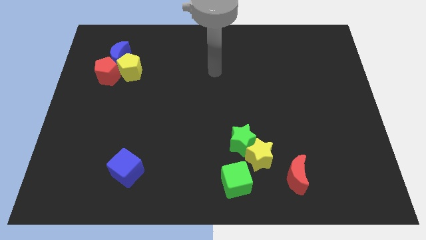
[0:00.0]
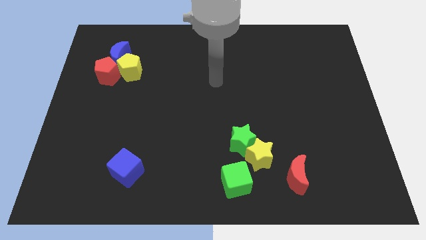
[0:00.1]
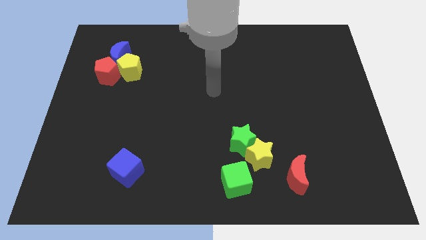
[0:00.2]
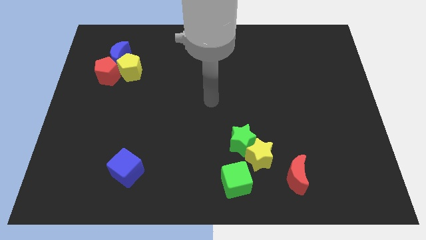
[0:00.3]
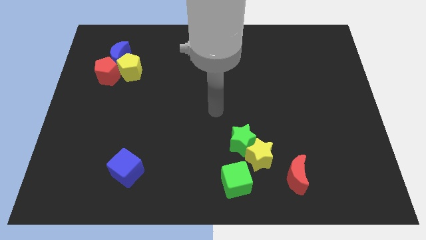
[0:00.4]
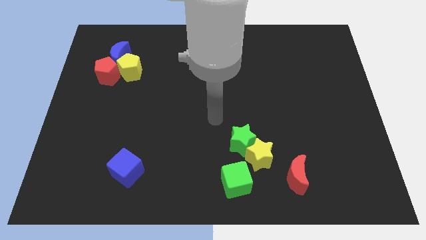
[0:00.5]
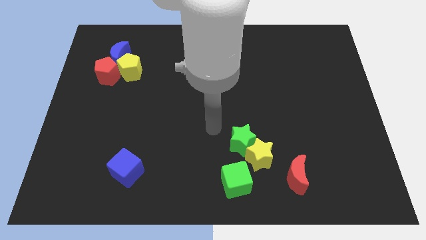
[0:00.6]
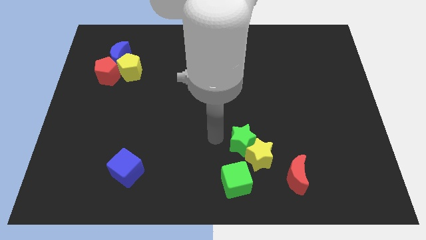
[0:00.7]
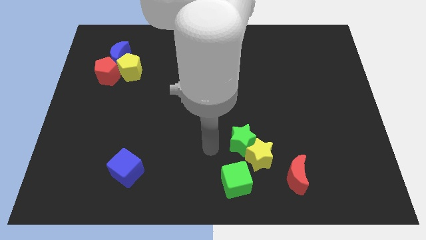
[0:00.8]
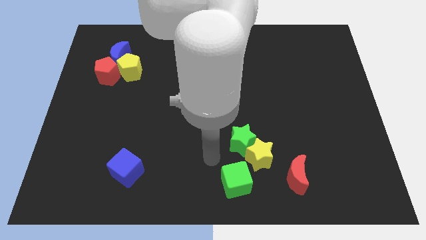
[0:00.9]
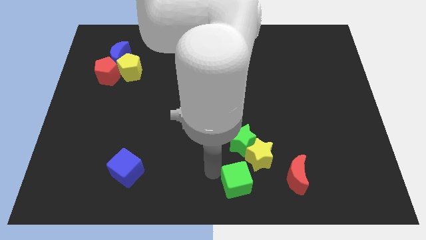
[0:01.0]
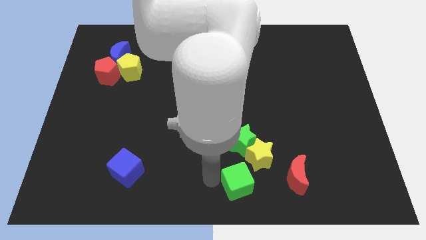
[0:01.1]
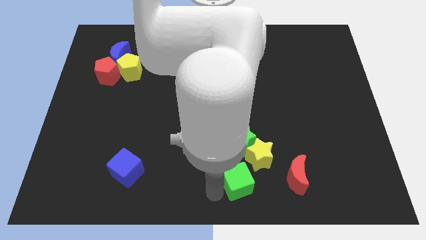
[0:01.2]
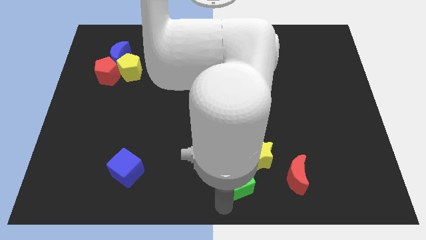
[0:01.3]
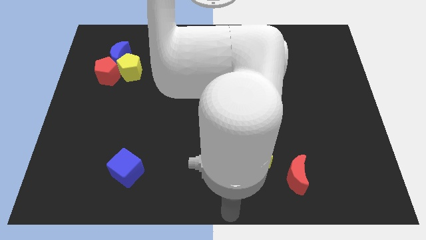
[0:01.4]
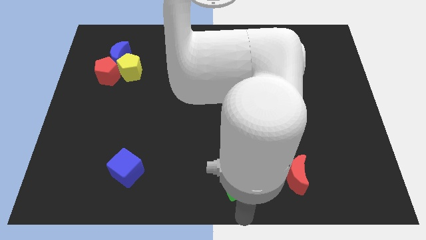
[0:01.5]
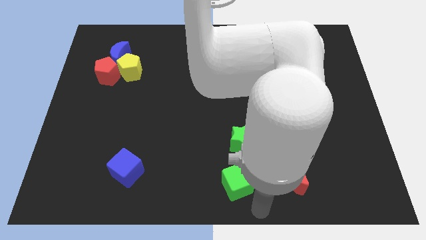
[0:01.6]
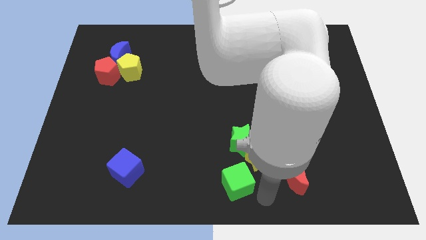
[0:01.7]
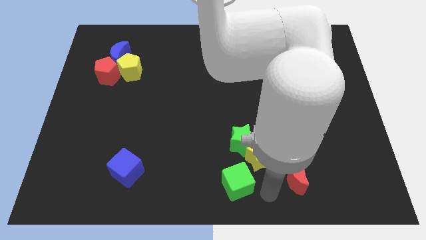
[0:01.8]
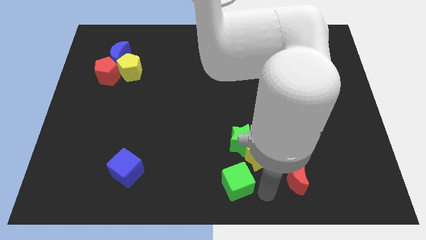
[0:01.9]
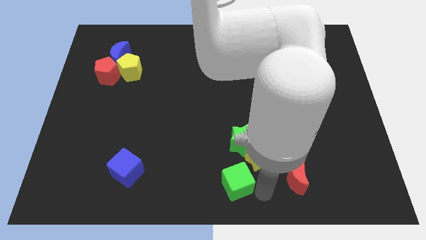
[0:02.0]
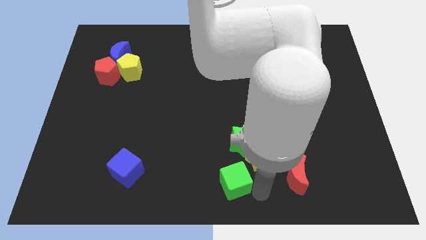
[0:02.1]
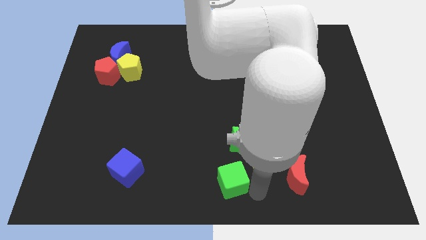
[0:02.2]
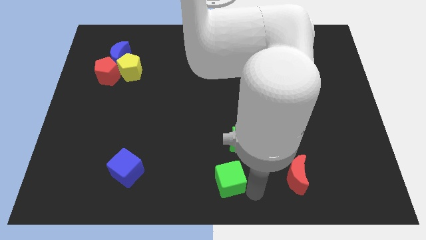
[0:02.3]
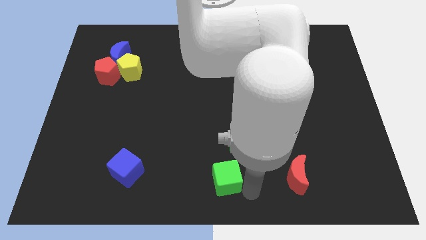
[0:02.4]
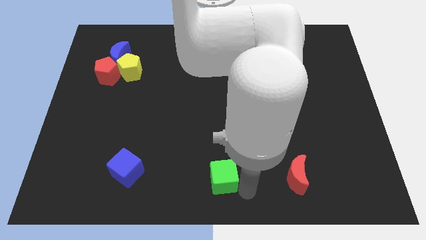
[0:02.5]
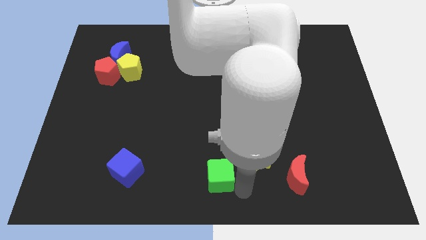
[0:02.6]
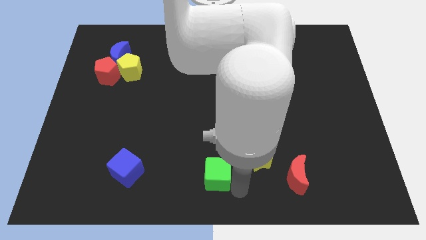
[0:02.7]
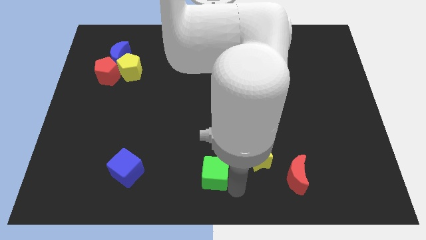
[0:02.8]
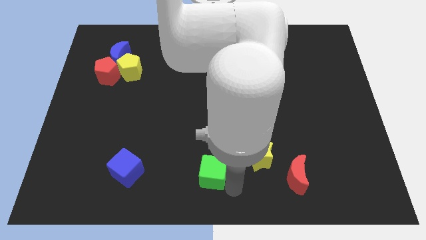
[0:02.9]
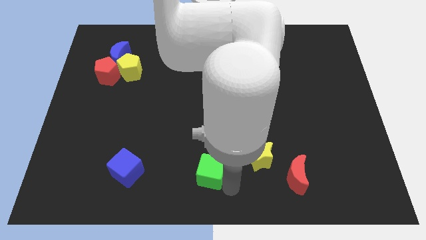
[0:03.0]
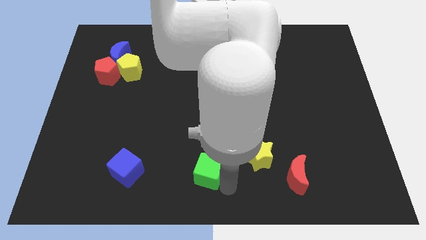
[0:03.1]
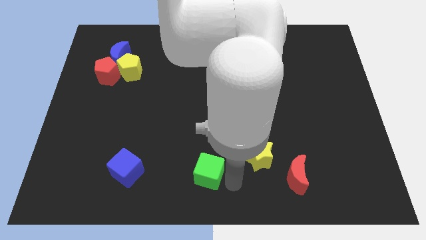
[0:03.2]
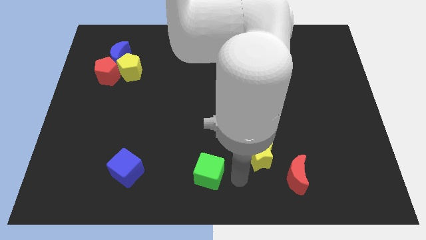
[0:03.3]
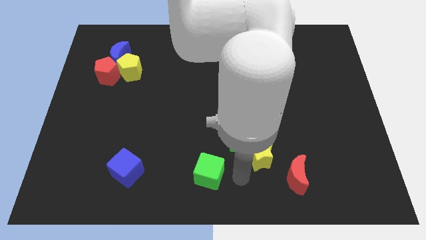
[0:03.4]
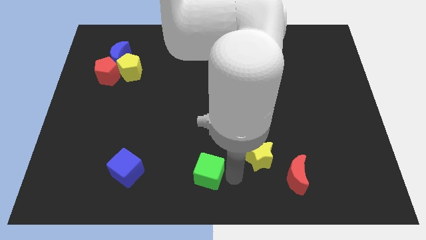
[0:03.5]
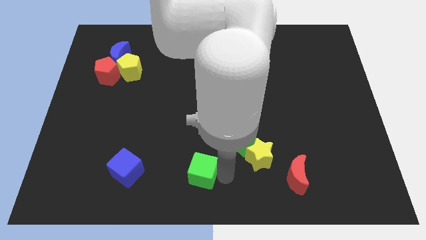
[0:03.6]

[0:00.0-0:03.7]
put the green cube to the right of the blue cube

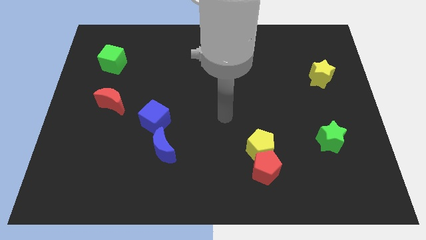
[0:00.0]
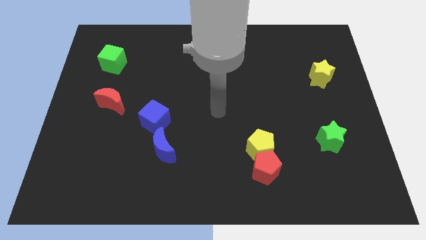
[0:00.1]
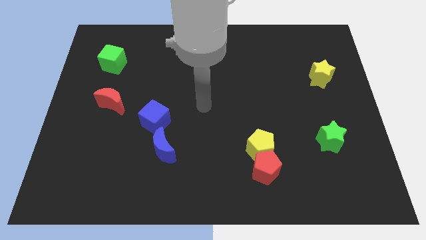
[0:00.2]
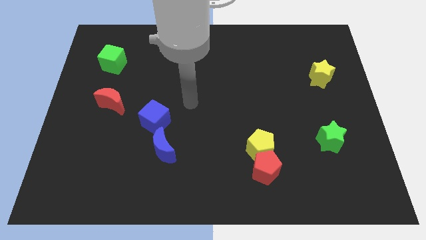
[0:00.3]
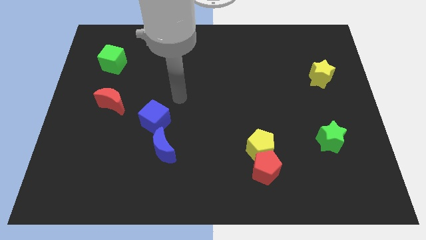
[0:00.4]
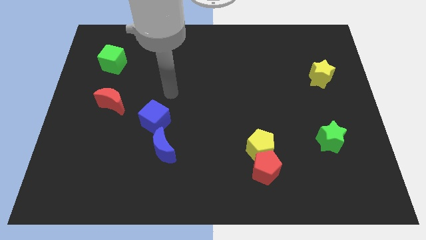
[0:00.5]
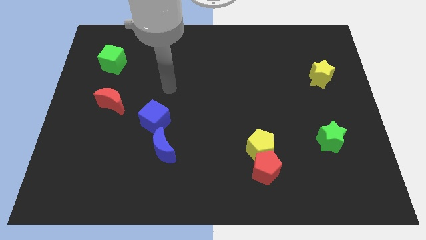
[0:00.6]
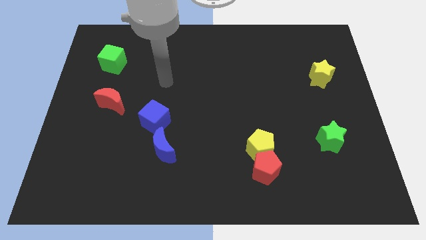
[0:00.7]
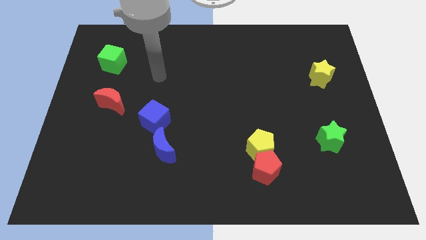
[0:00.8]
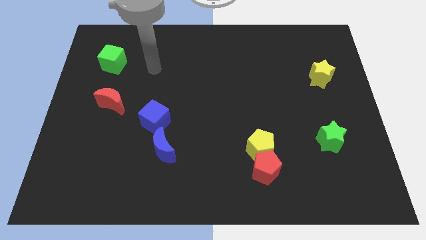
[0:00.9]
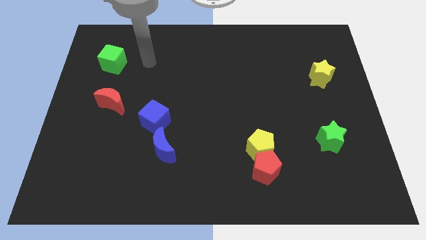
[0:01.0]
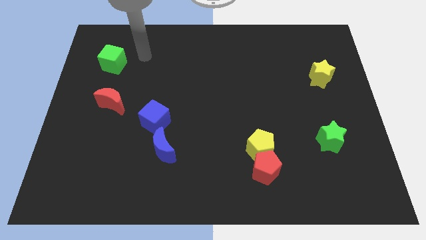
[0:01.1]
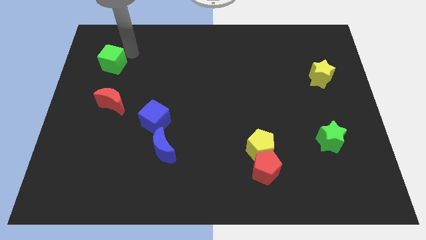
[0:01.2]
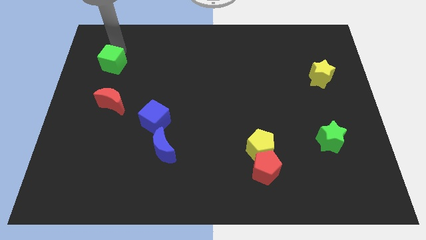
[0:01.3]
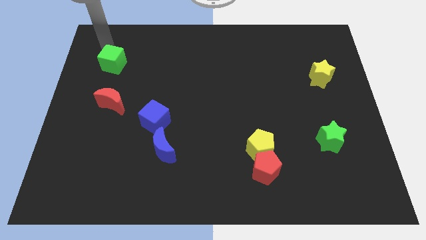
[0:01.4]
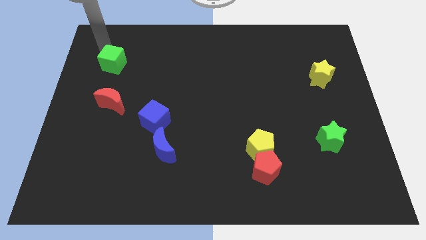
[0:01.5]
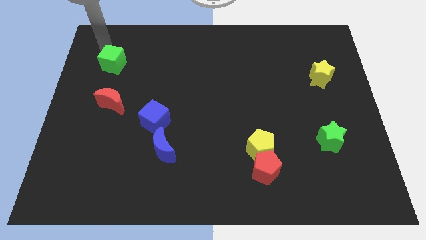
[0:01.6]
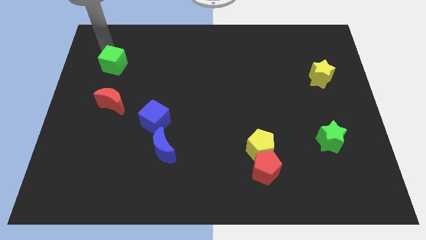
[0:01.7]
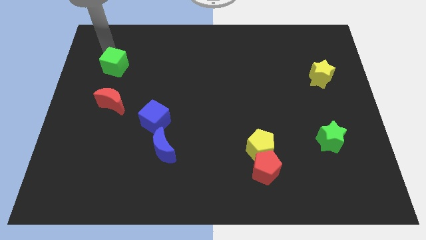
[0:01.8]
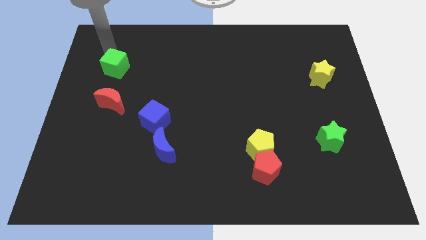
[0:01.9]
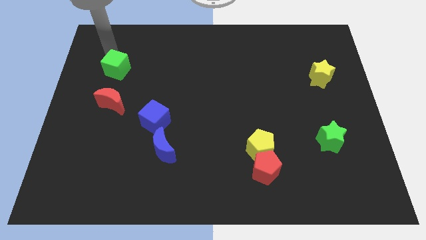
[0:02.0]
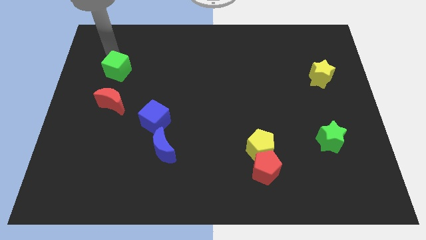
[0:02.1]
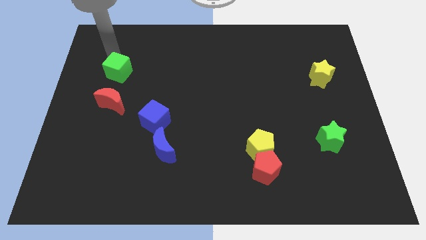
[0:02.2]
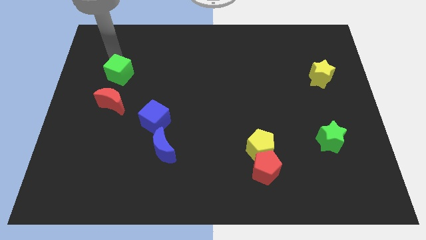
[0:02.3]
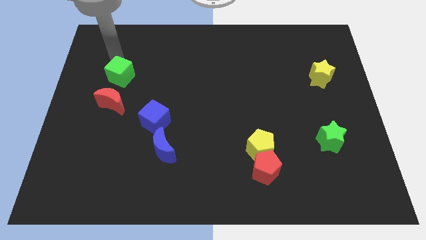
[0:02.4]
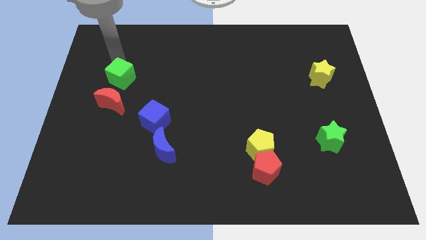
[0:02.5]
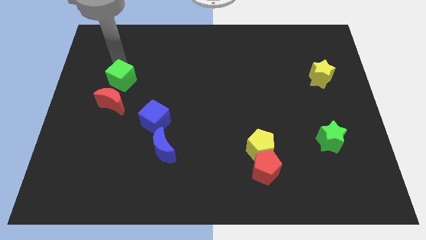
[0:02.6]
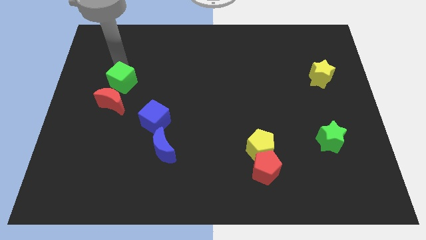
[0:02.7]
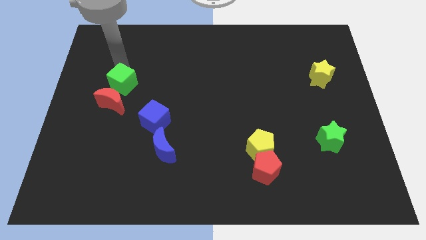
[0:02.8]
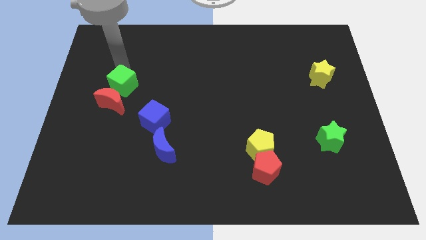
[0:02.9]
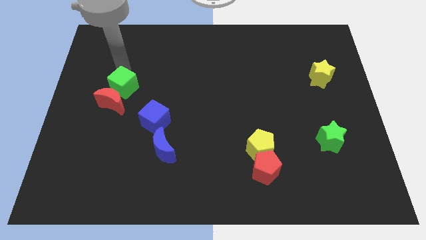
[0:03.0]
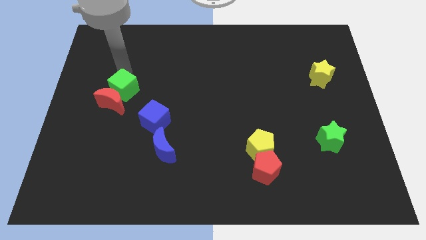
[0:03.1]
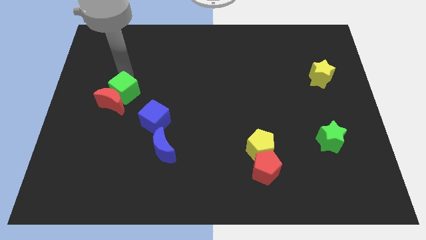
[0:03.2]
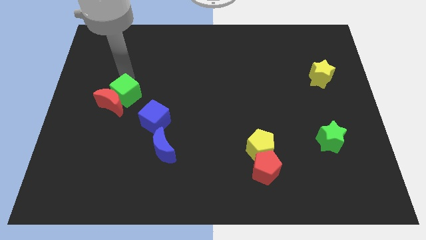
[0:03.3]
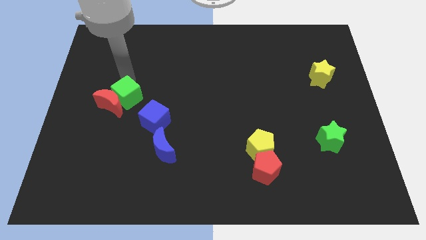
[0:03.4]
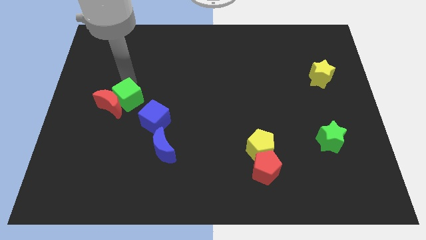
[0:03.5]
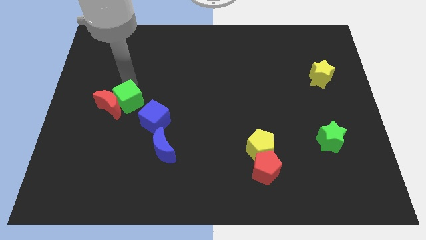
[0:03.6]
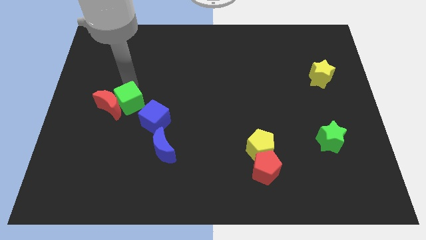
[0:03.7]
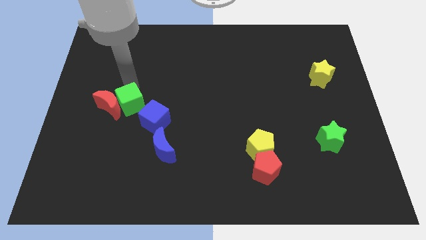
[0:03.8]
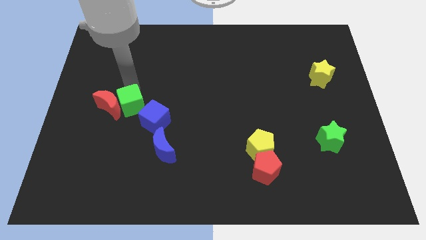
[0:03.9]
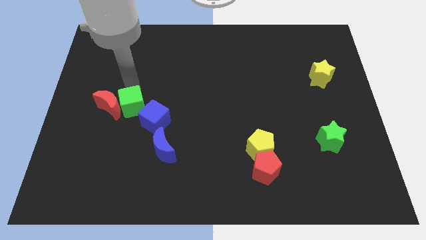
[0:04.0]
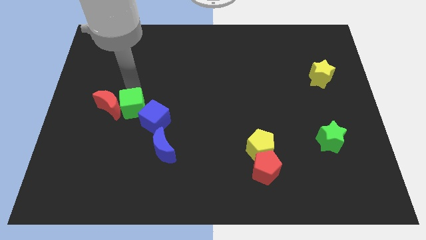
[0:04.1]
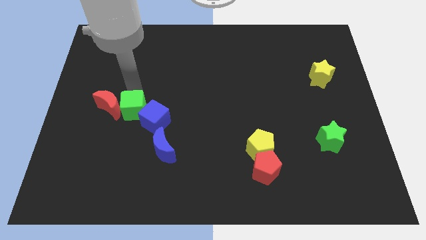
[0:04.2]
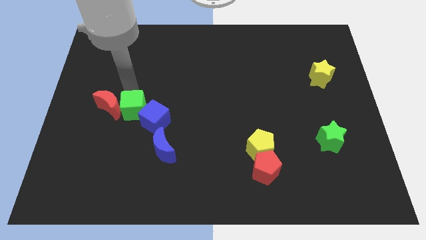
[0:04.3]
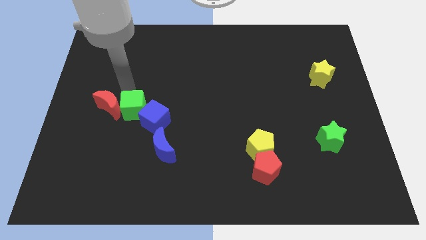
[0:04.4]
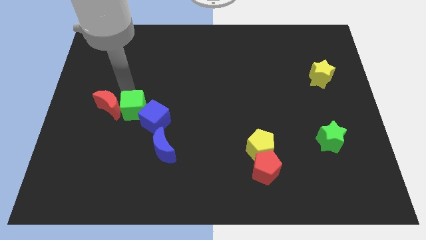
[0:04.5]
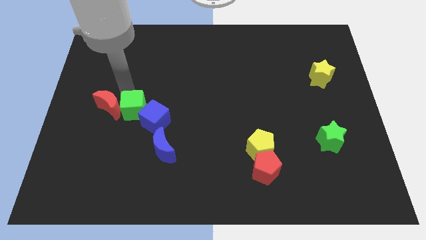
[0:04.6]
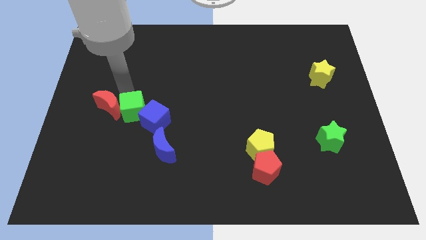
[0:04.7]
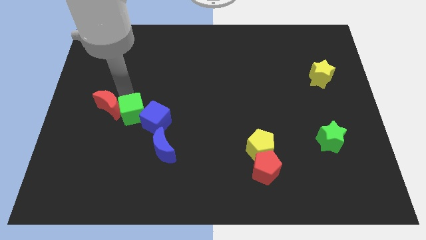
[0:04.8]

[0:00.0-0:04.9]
slide the green cube to the top left side of the blue moon

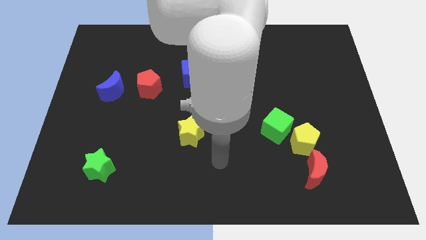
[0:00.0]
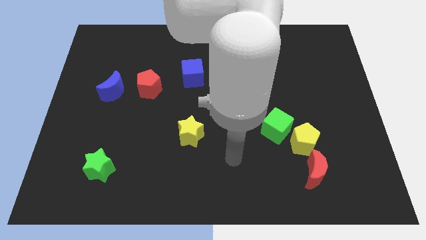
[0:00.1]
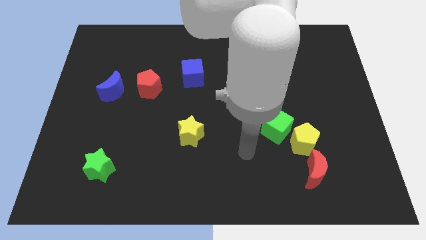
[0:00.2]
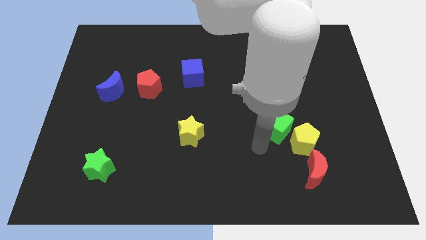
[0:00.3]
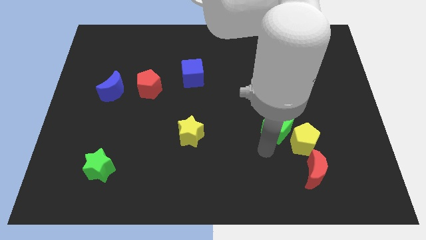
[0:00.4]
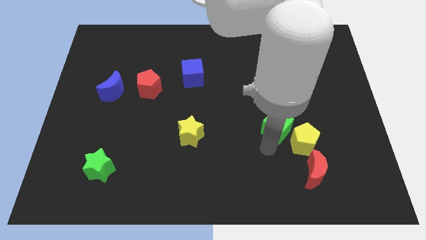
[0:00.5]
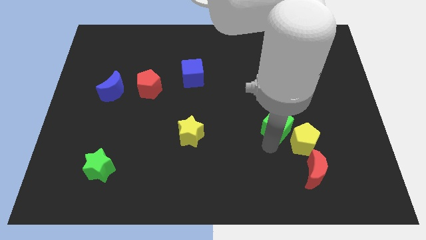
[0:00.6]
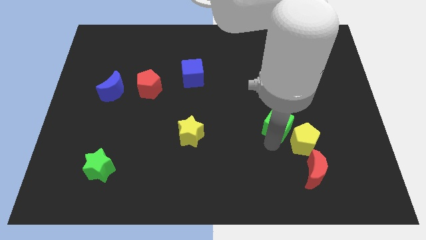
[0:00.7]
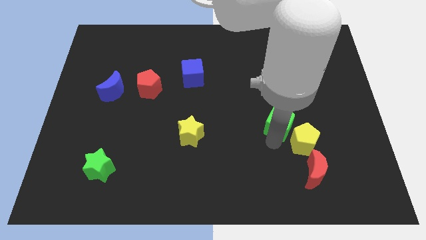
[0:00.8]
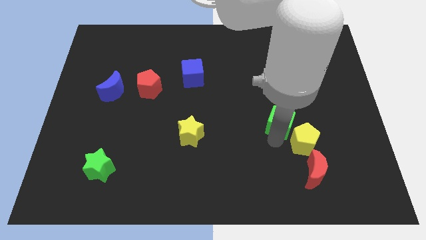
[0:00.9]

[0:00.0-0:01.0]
push the green cube to the top side of the yellow pentagon
